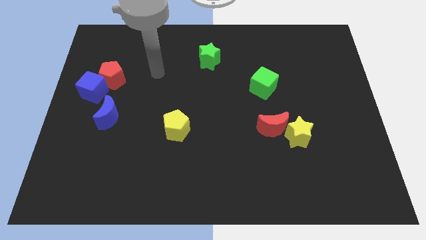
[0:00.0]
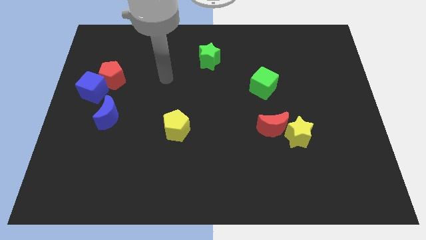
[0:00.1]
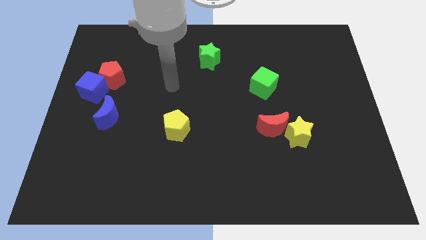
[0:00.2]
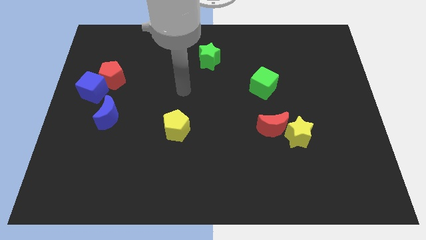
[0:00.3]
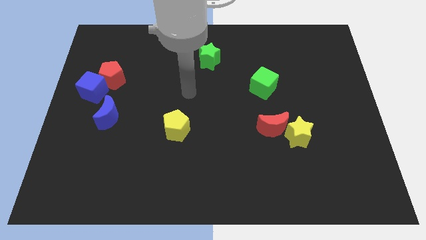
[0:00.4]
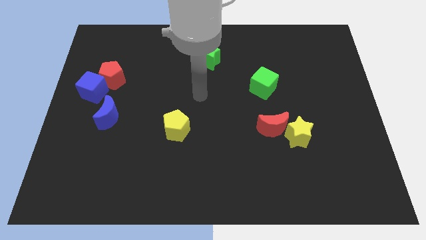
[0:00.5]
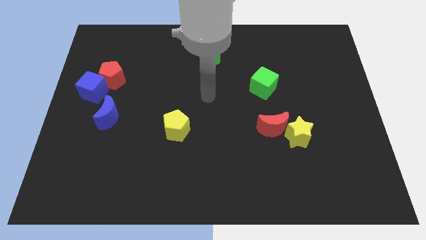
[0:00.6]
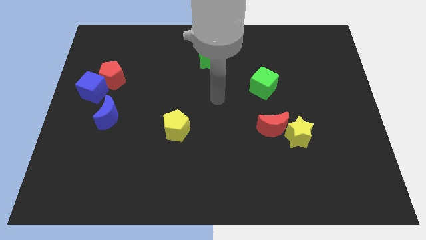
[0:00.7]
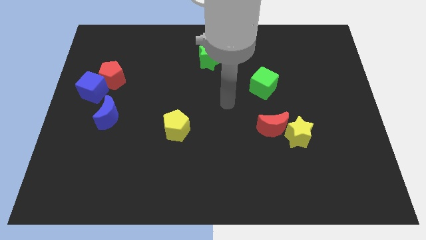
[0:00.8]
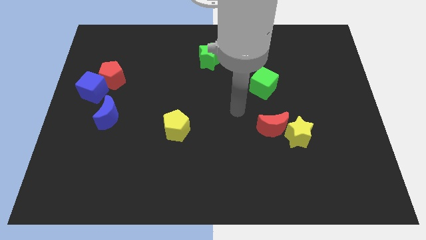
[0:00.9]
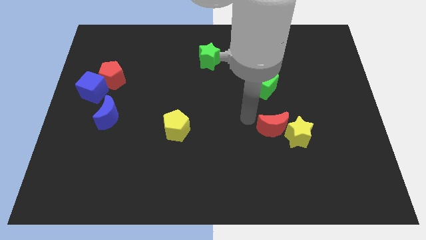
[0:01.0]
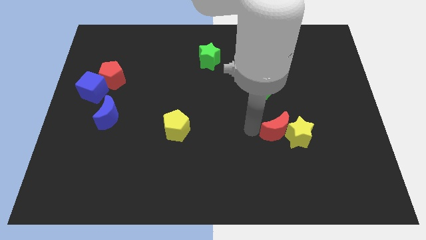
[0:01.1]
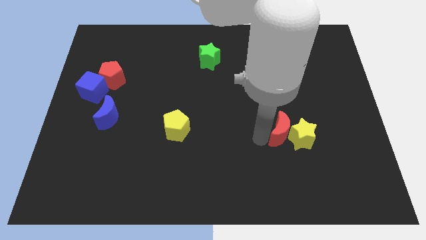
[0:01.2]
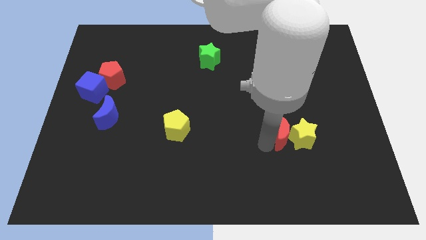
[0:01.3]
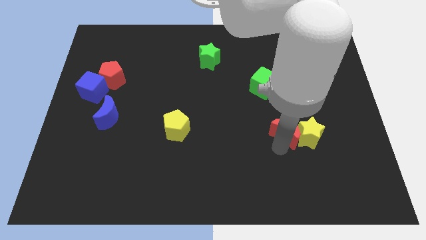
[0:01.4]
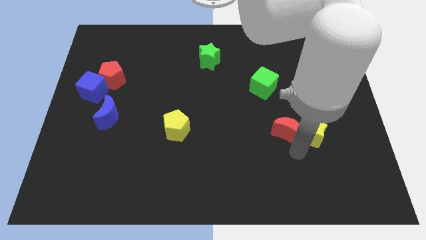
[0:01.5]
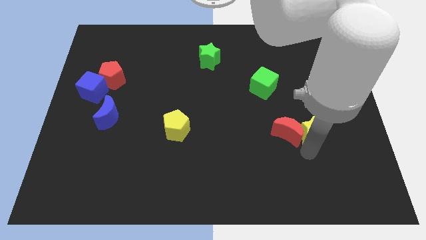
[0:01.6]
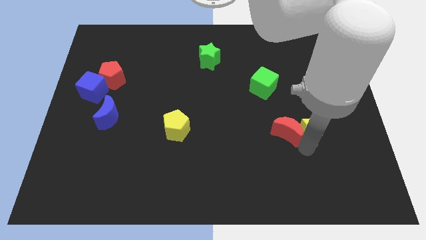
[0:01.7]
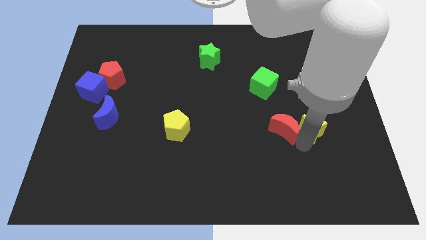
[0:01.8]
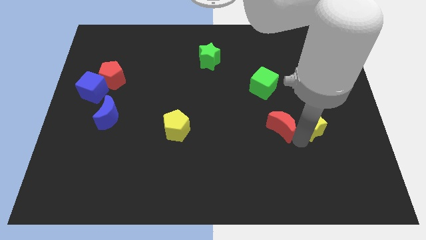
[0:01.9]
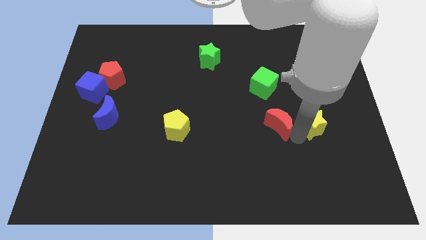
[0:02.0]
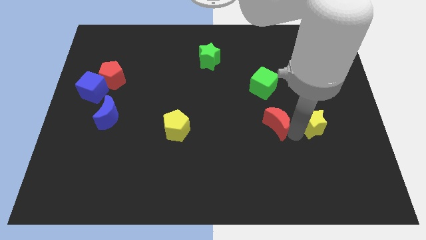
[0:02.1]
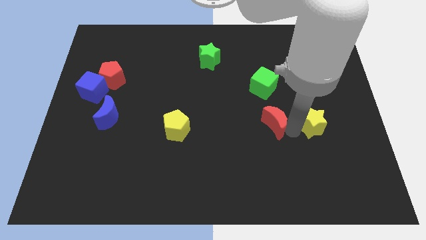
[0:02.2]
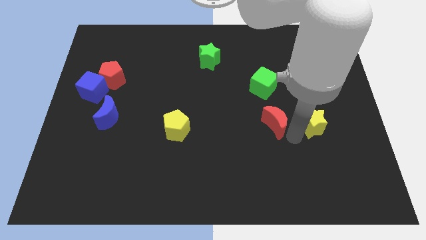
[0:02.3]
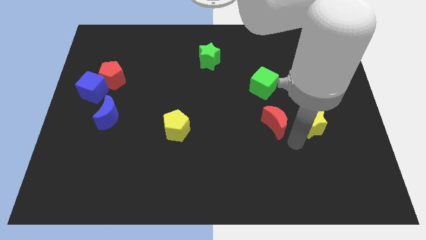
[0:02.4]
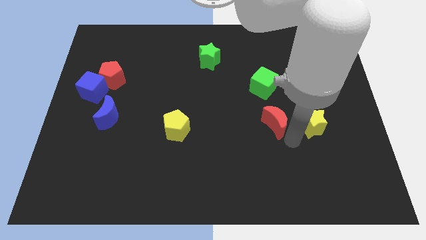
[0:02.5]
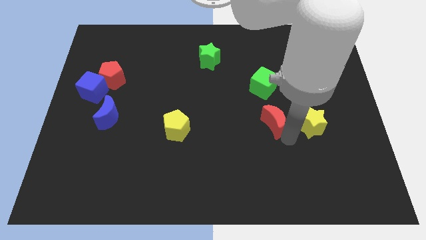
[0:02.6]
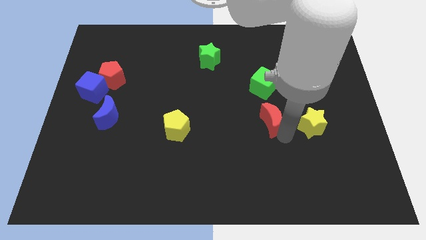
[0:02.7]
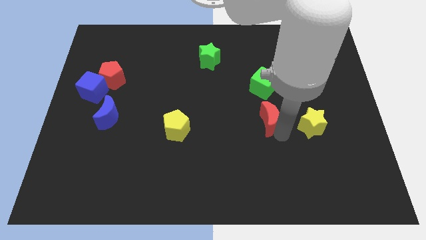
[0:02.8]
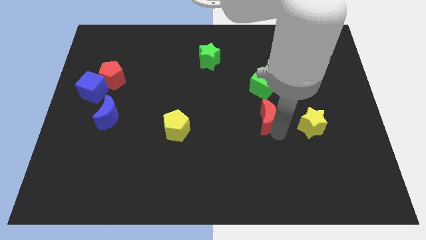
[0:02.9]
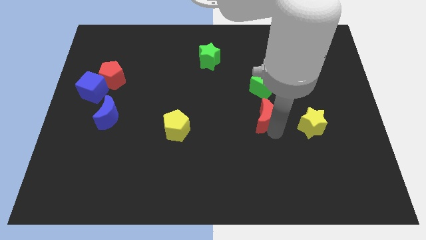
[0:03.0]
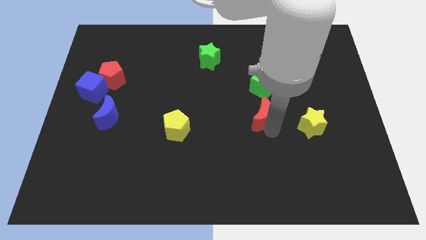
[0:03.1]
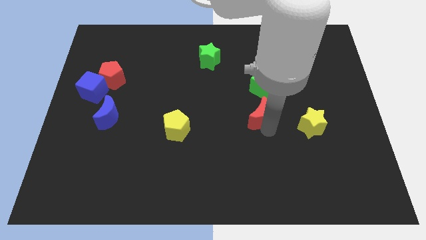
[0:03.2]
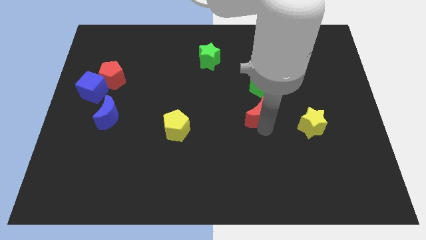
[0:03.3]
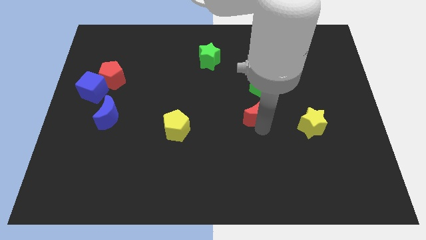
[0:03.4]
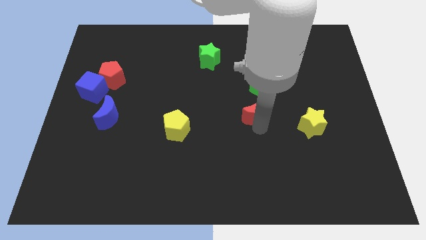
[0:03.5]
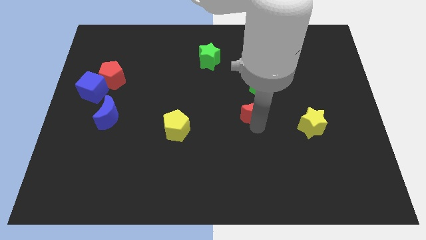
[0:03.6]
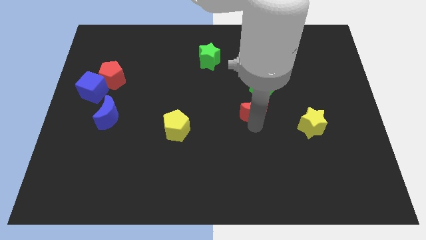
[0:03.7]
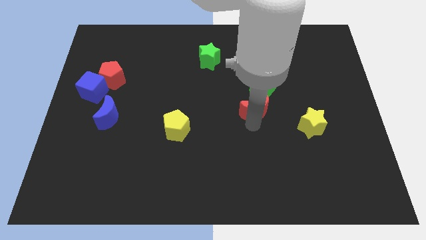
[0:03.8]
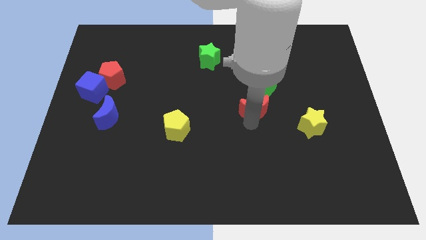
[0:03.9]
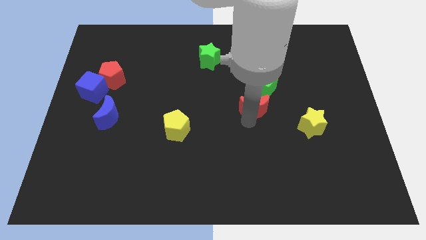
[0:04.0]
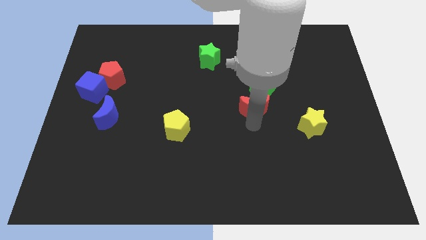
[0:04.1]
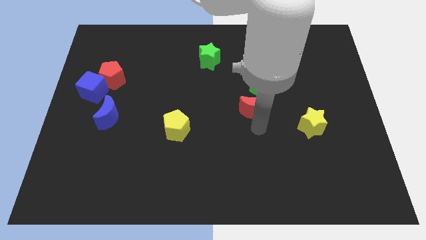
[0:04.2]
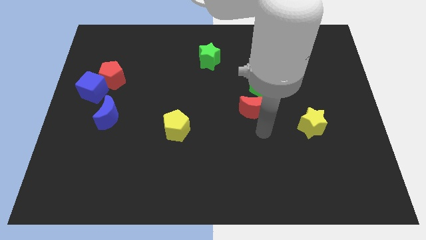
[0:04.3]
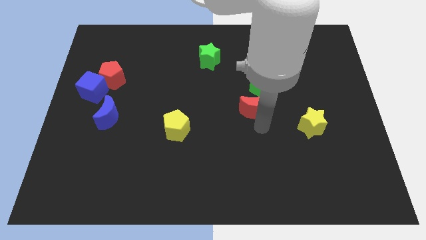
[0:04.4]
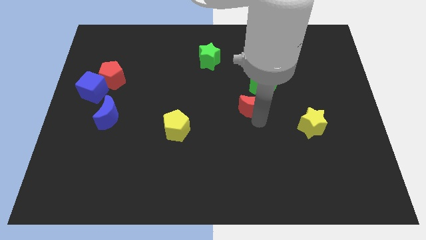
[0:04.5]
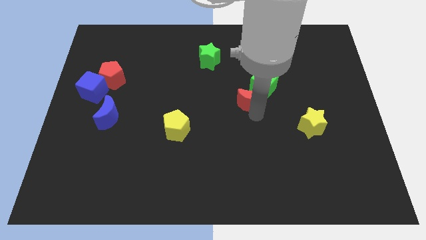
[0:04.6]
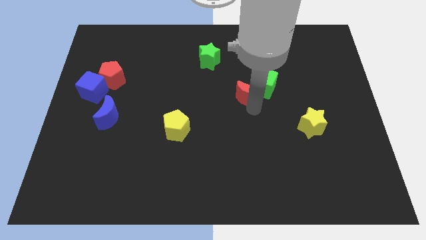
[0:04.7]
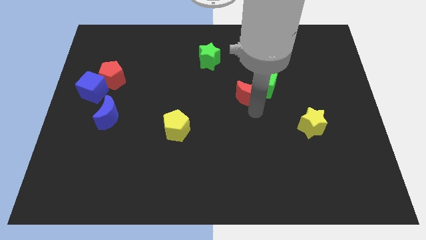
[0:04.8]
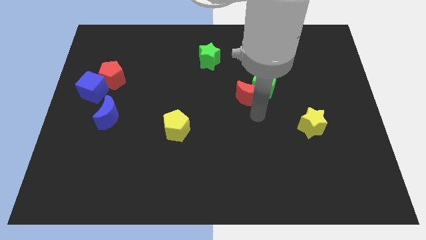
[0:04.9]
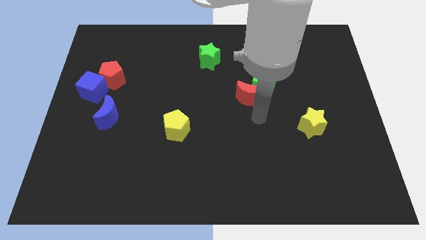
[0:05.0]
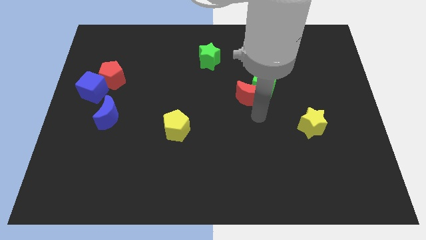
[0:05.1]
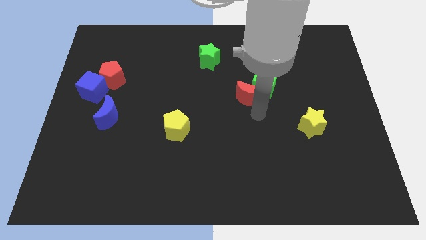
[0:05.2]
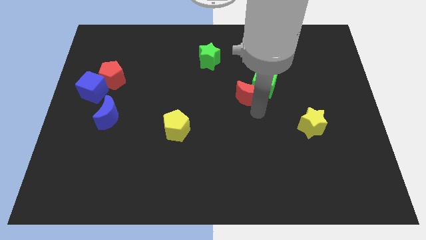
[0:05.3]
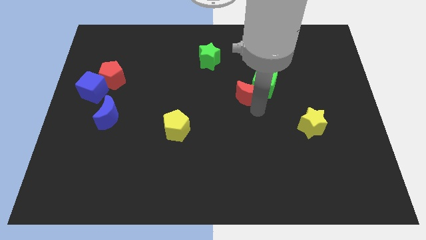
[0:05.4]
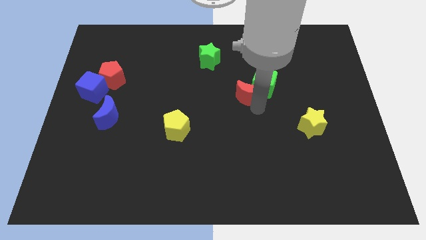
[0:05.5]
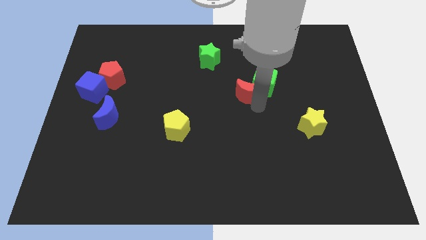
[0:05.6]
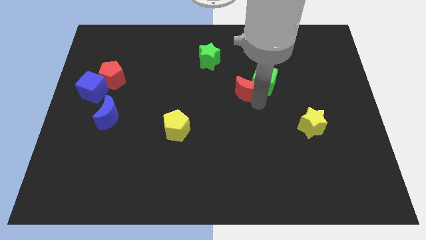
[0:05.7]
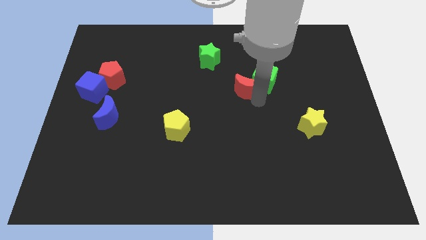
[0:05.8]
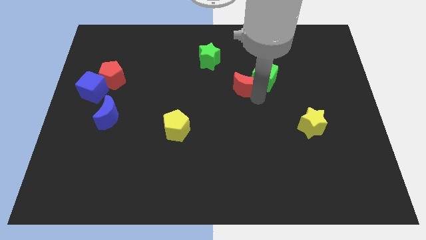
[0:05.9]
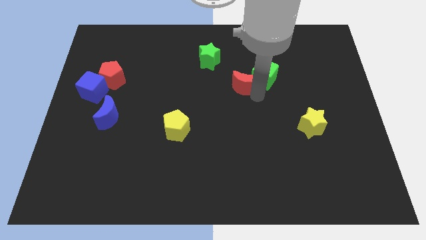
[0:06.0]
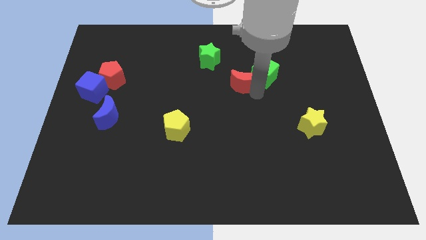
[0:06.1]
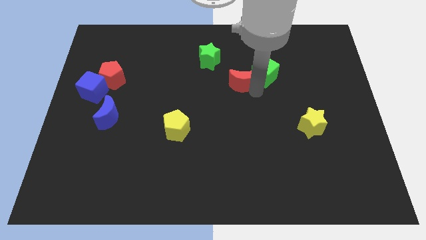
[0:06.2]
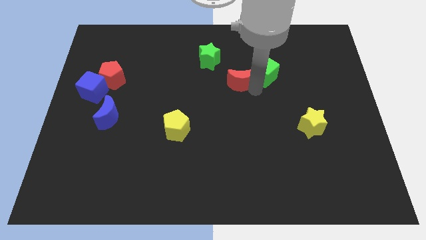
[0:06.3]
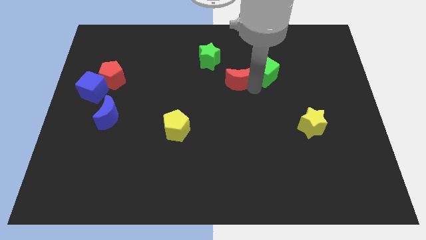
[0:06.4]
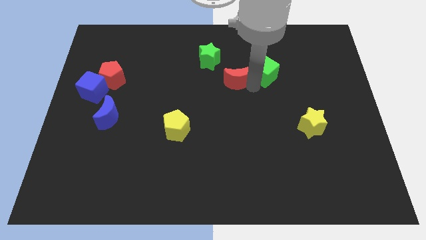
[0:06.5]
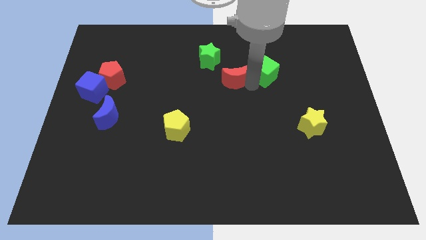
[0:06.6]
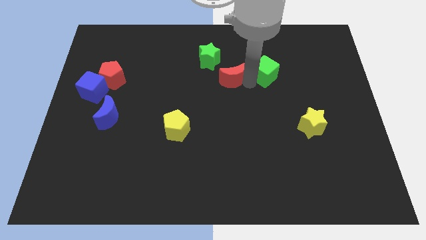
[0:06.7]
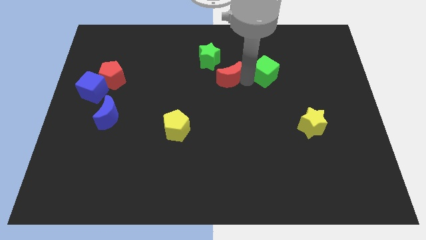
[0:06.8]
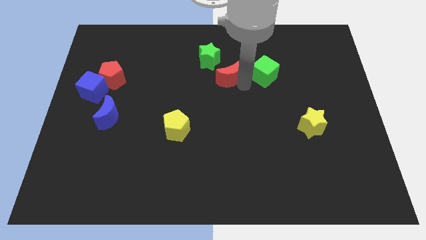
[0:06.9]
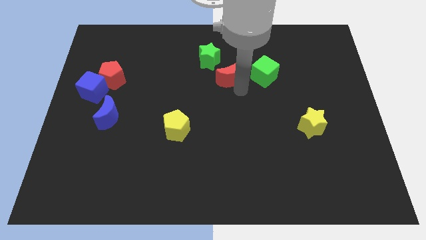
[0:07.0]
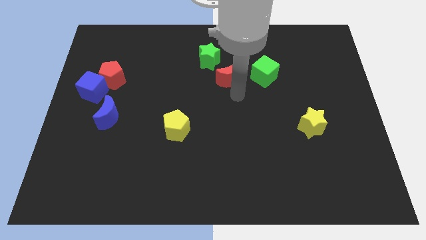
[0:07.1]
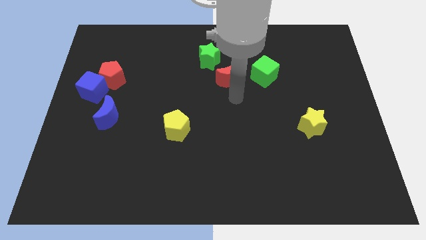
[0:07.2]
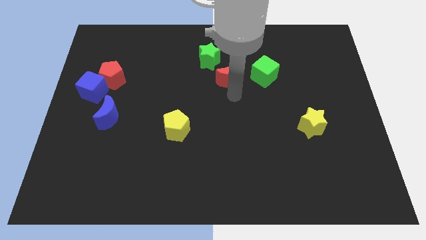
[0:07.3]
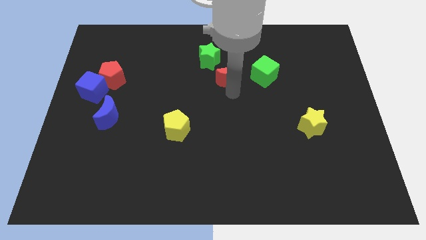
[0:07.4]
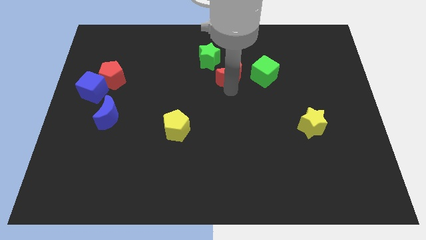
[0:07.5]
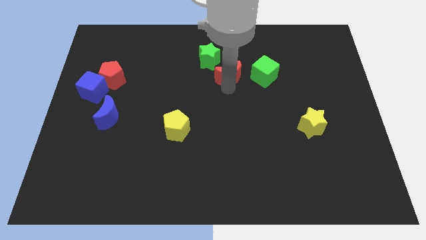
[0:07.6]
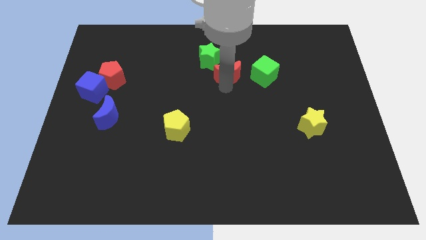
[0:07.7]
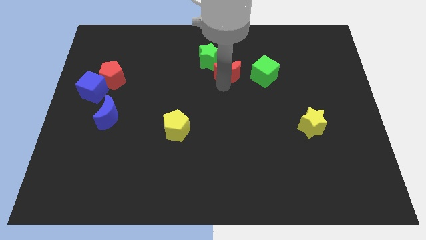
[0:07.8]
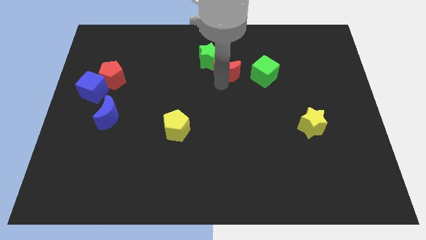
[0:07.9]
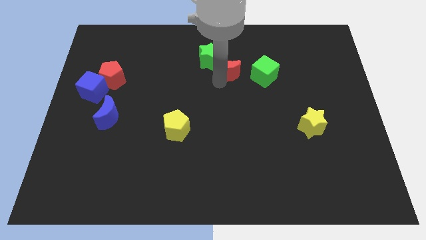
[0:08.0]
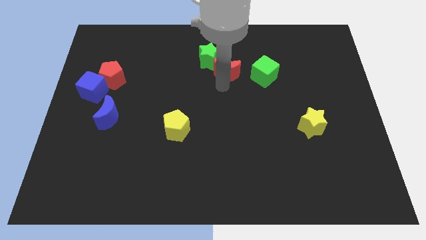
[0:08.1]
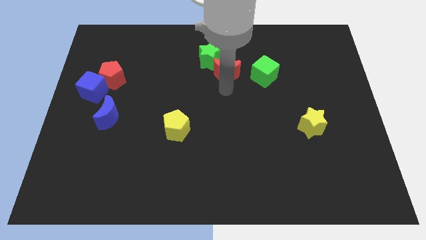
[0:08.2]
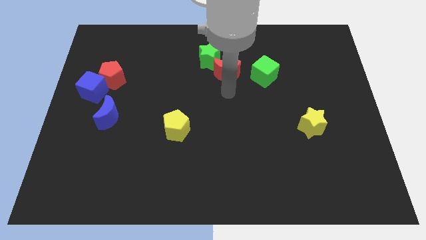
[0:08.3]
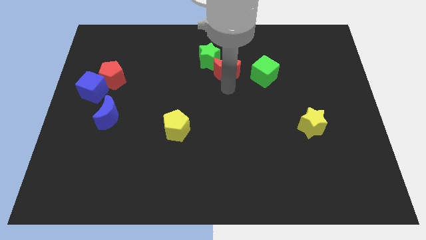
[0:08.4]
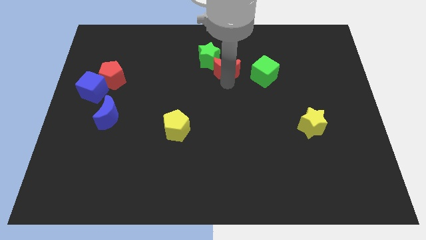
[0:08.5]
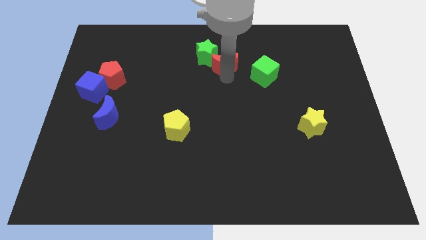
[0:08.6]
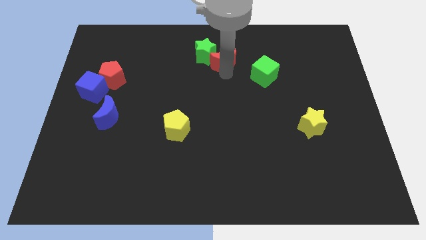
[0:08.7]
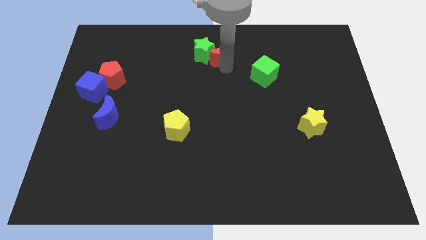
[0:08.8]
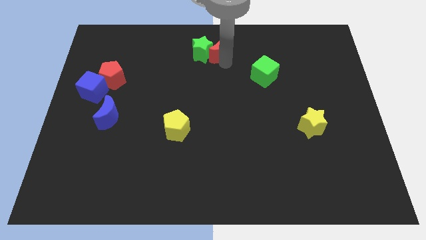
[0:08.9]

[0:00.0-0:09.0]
push the red moon to the top side
